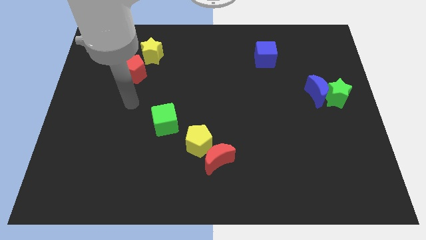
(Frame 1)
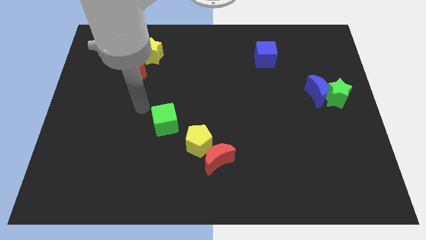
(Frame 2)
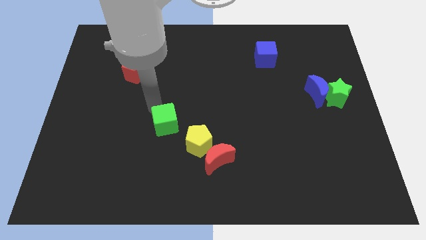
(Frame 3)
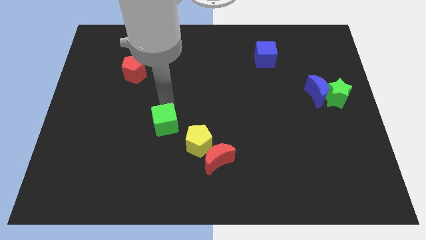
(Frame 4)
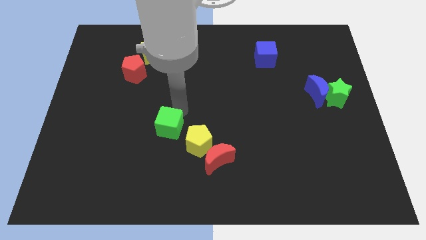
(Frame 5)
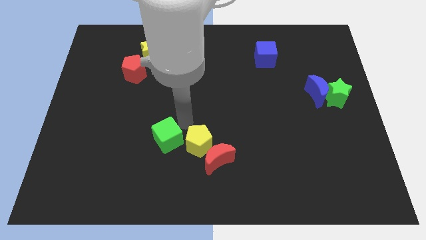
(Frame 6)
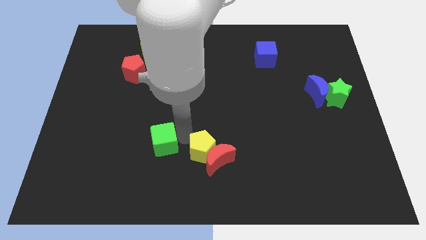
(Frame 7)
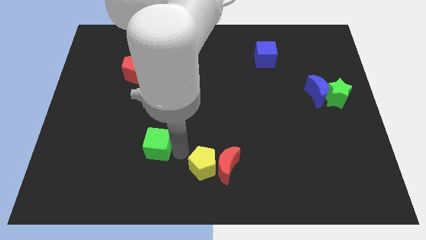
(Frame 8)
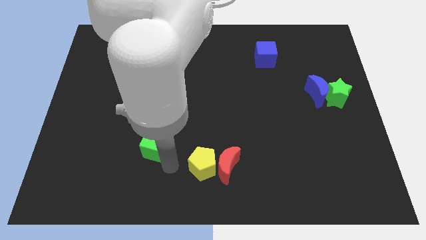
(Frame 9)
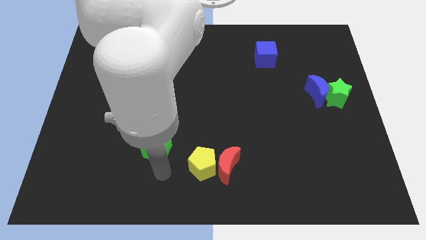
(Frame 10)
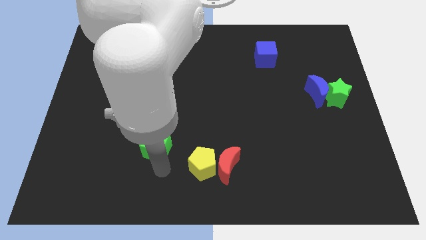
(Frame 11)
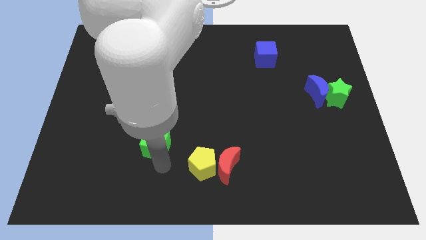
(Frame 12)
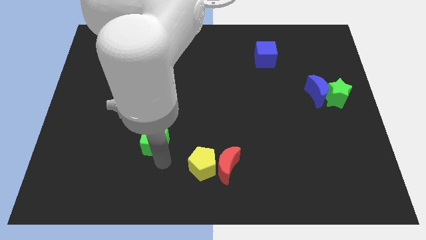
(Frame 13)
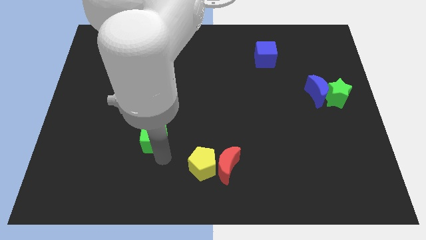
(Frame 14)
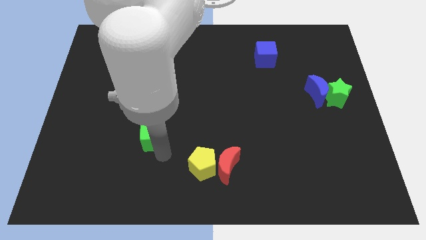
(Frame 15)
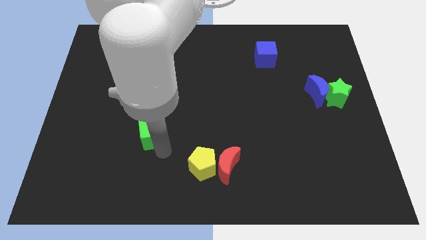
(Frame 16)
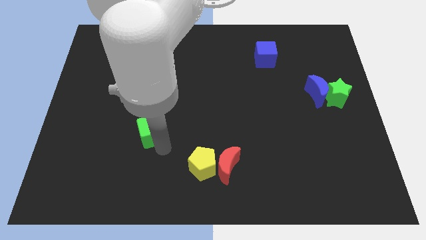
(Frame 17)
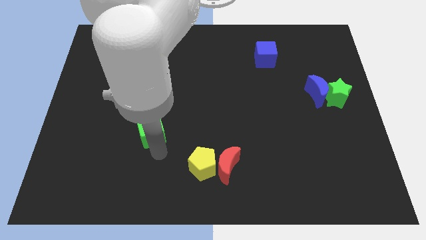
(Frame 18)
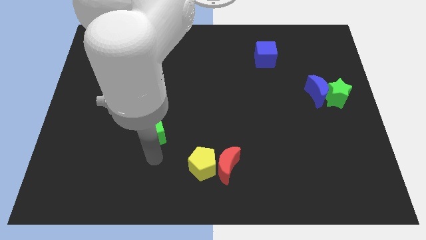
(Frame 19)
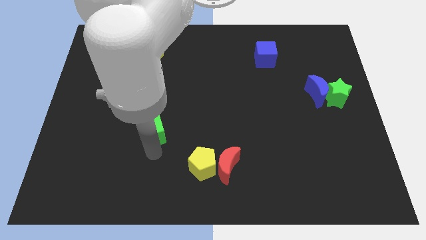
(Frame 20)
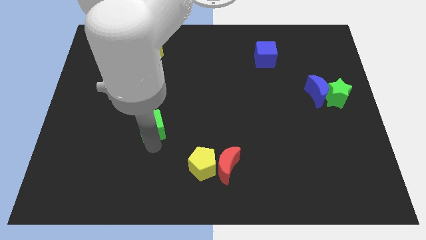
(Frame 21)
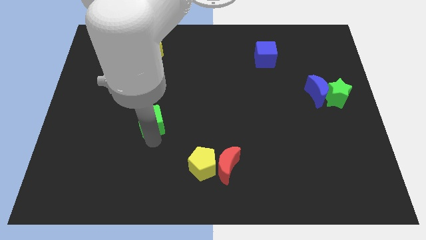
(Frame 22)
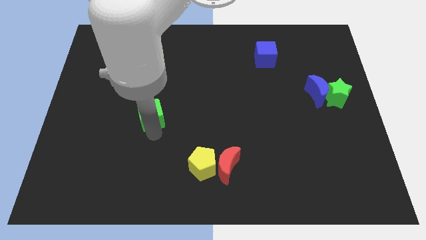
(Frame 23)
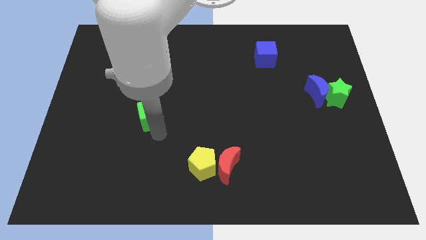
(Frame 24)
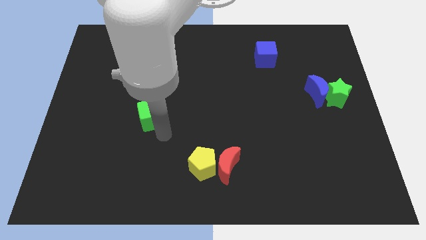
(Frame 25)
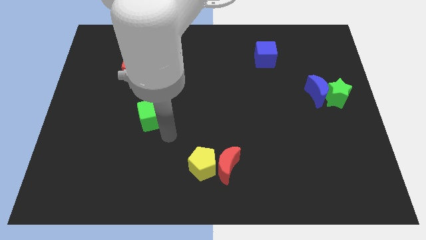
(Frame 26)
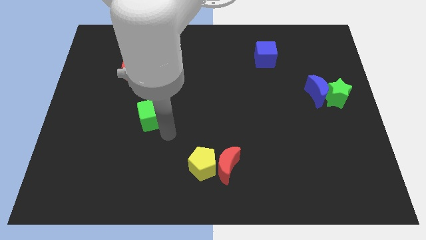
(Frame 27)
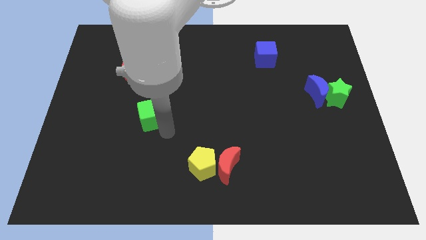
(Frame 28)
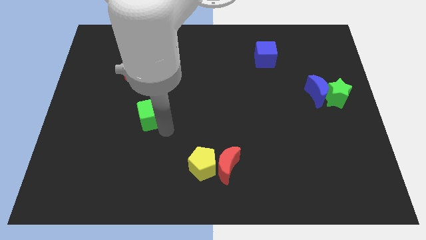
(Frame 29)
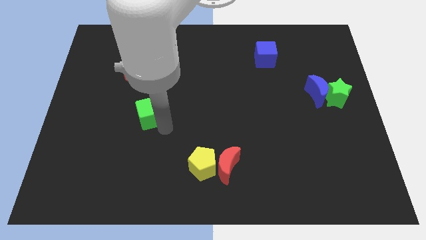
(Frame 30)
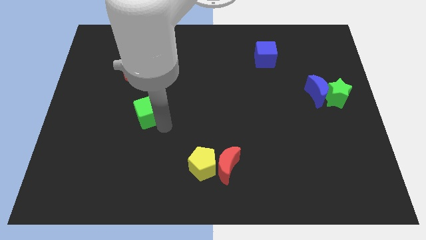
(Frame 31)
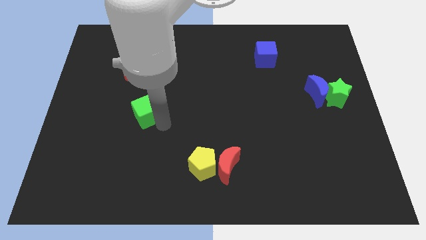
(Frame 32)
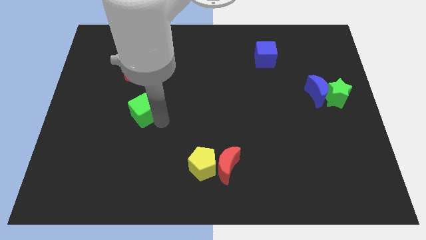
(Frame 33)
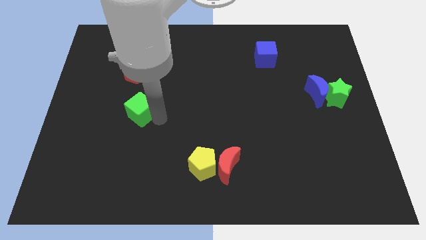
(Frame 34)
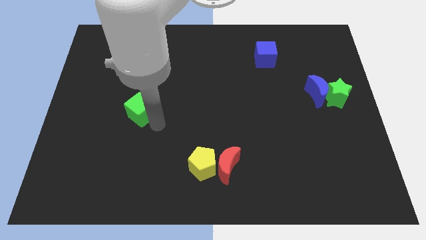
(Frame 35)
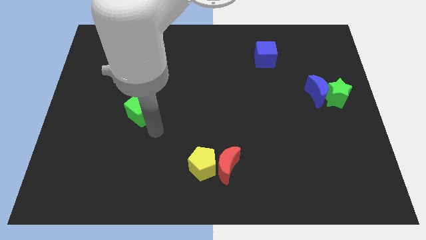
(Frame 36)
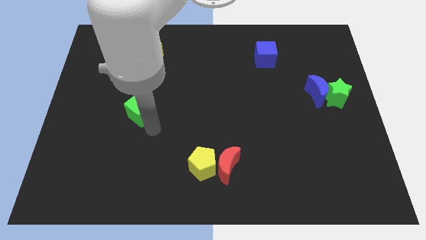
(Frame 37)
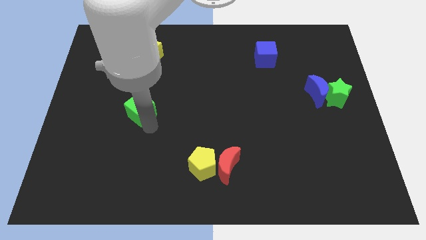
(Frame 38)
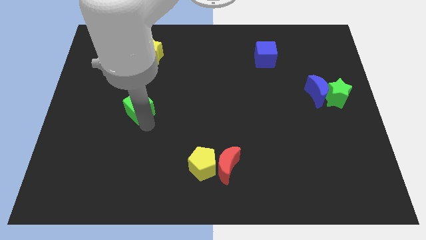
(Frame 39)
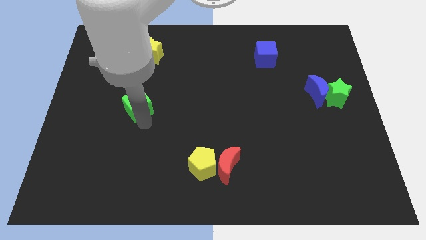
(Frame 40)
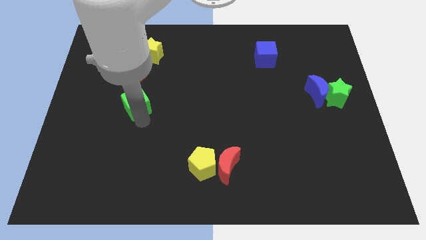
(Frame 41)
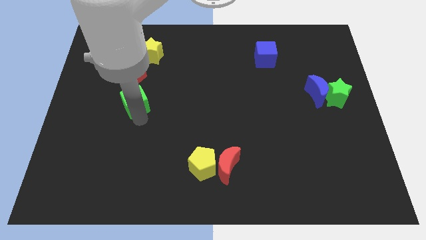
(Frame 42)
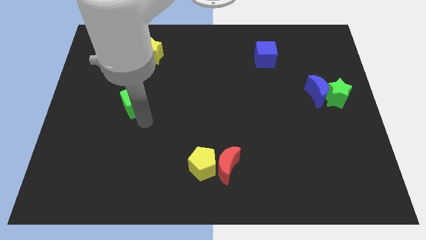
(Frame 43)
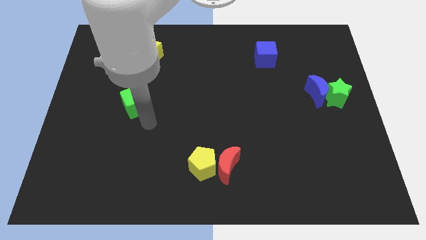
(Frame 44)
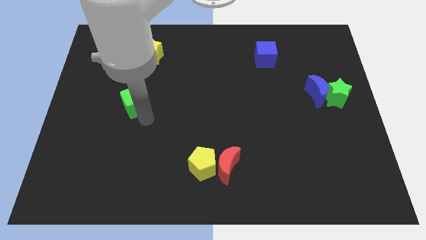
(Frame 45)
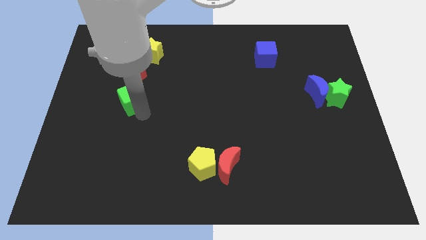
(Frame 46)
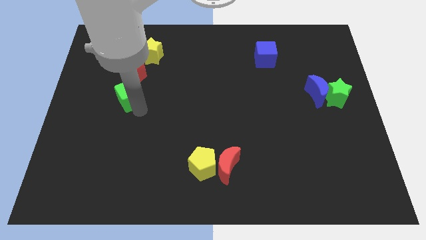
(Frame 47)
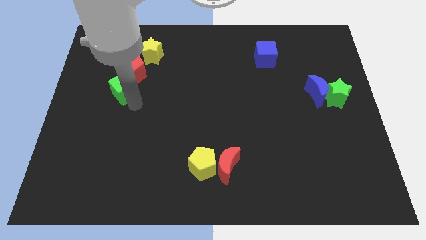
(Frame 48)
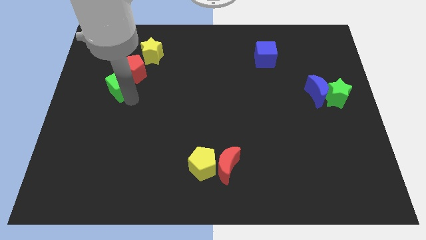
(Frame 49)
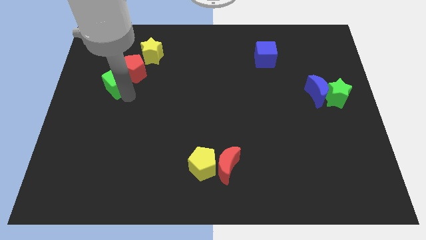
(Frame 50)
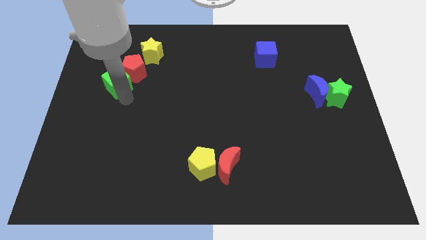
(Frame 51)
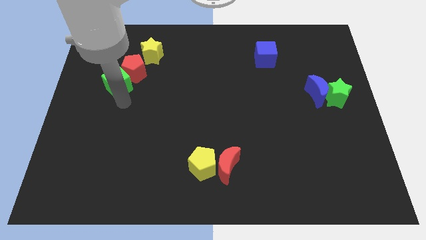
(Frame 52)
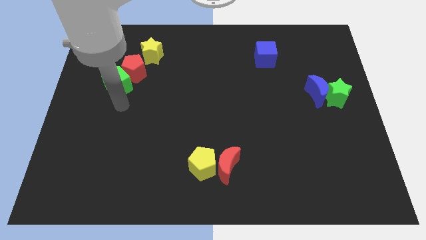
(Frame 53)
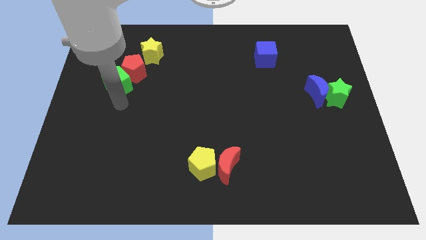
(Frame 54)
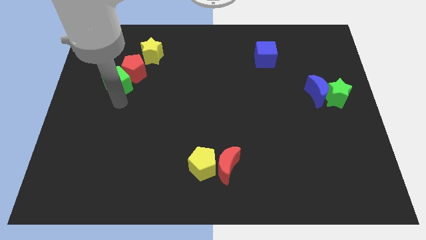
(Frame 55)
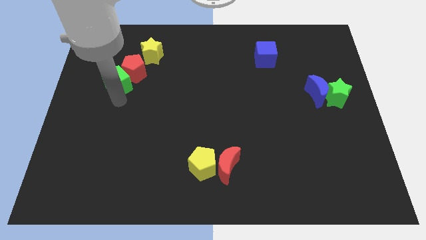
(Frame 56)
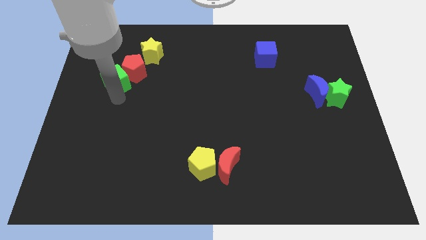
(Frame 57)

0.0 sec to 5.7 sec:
move the green cube to the bottom left side of the yellow star

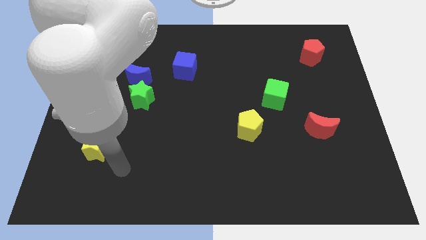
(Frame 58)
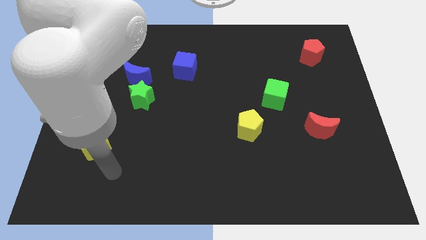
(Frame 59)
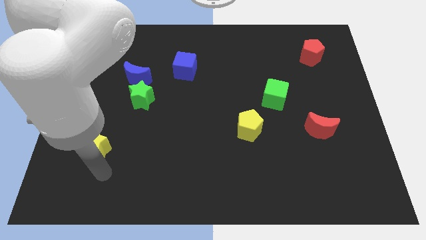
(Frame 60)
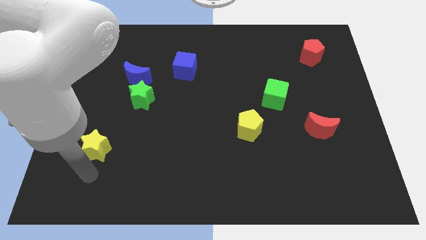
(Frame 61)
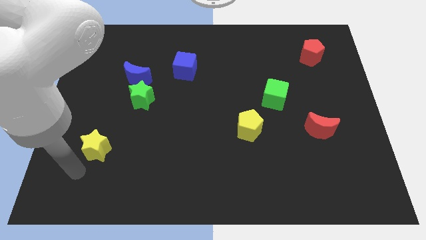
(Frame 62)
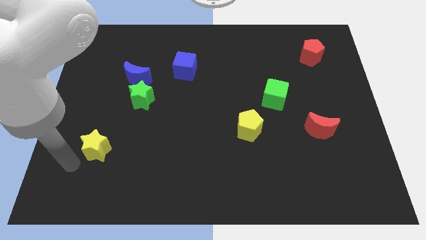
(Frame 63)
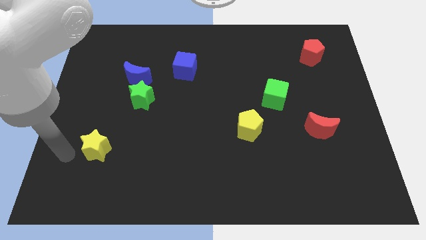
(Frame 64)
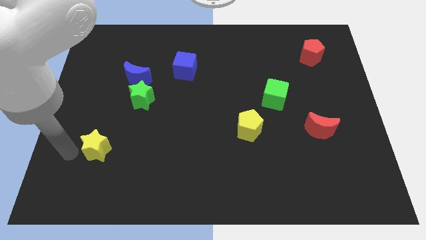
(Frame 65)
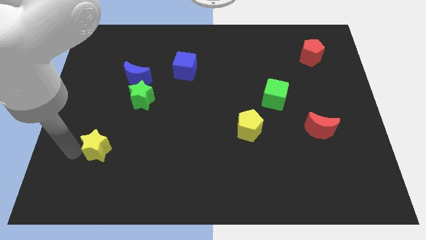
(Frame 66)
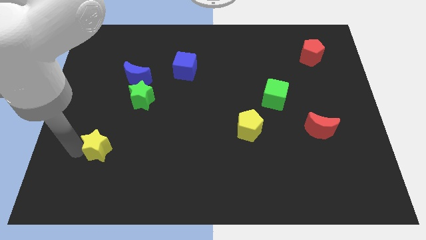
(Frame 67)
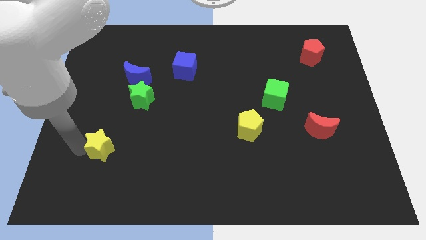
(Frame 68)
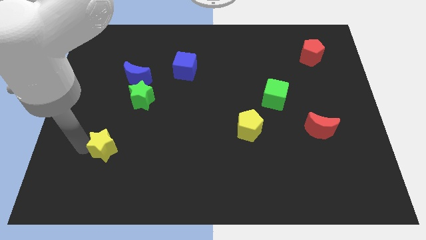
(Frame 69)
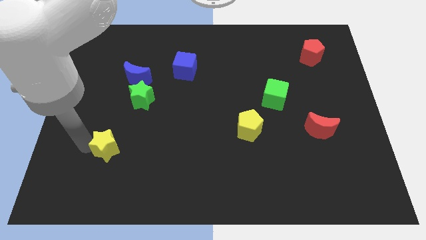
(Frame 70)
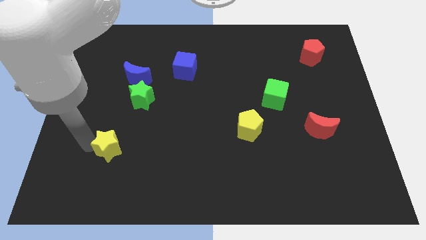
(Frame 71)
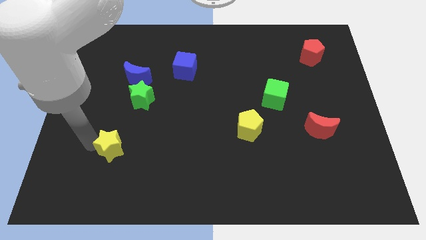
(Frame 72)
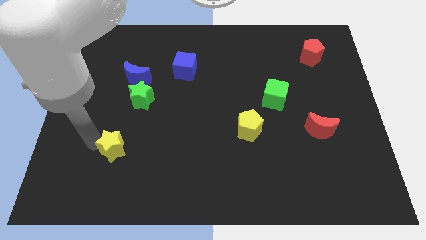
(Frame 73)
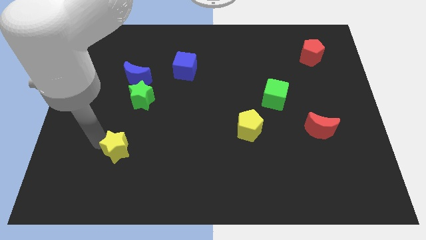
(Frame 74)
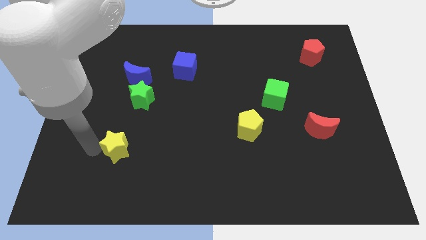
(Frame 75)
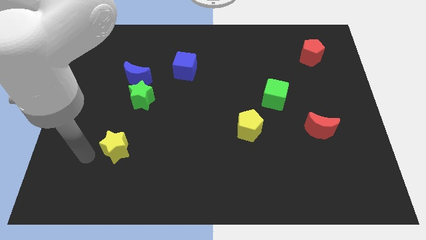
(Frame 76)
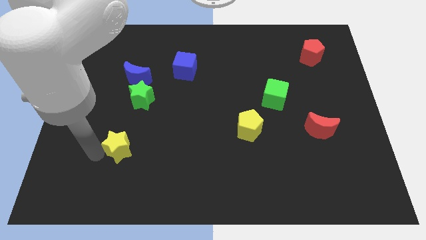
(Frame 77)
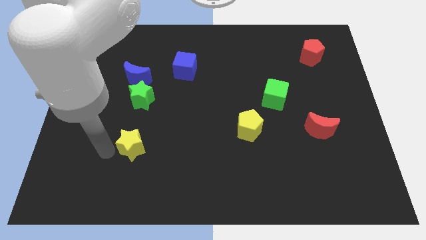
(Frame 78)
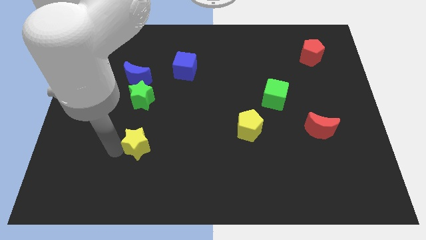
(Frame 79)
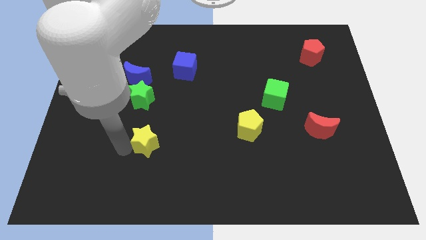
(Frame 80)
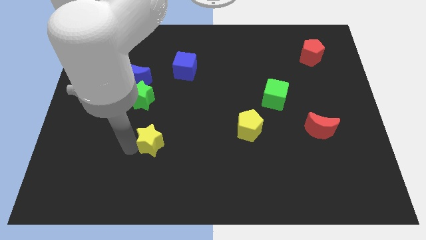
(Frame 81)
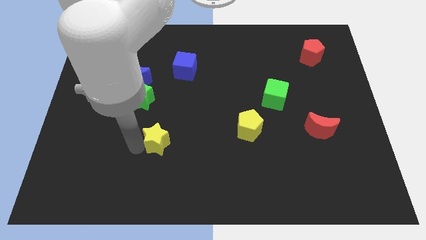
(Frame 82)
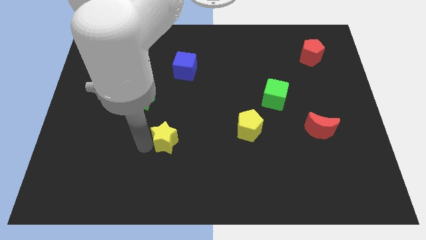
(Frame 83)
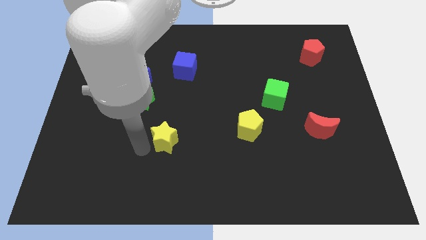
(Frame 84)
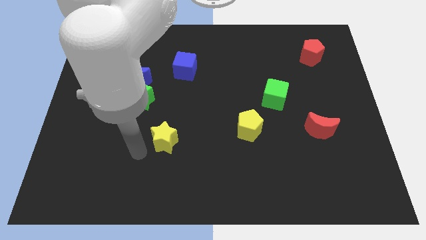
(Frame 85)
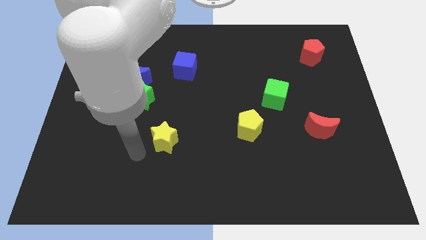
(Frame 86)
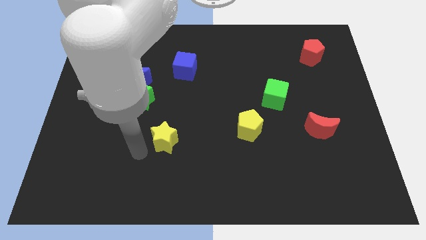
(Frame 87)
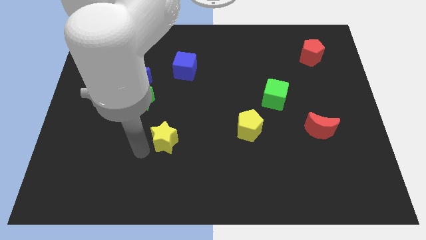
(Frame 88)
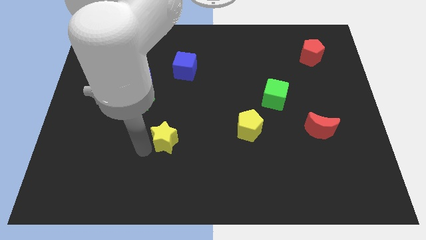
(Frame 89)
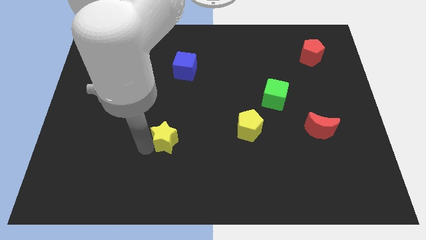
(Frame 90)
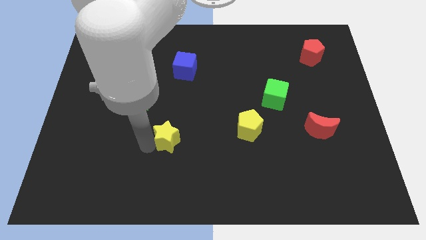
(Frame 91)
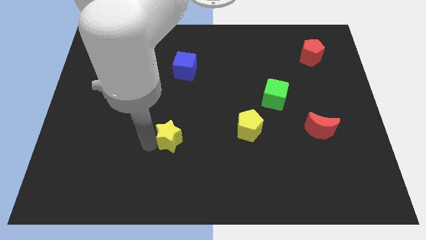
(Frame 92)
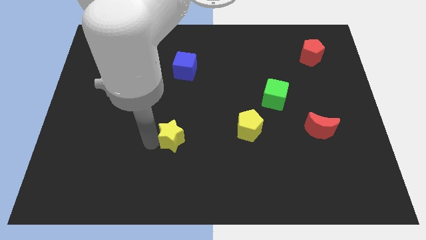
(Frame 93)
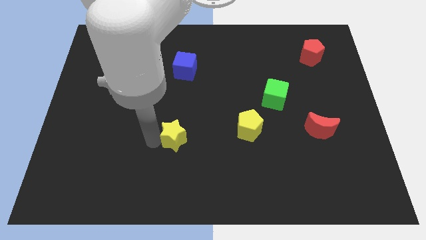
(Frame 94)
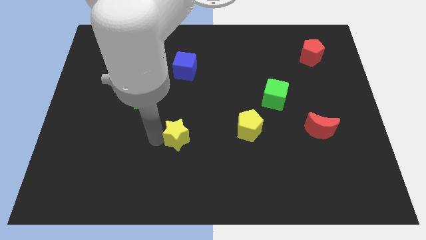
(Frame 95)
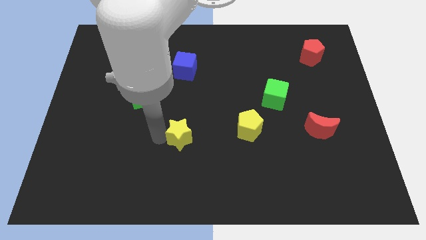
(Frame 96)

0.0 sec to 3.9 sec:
move the yellow star to the left of the yellow pentagon
